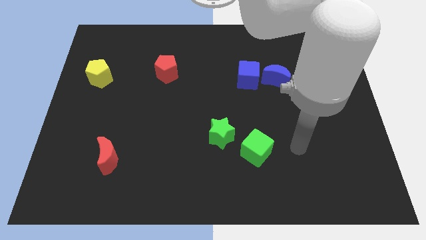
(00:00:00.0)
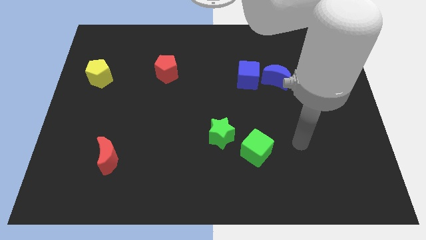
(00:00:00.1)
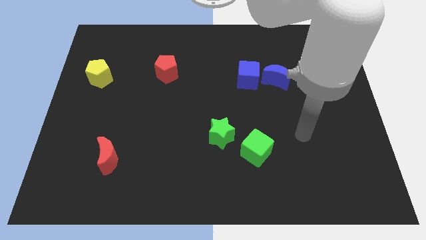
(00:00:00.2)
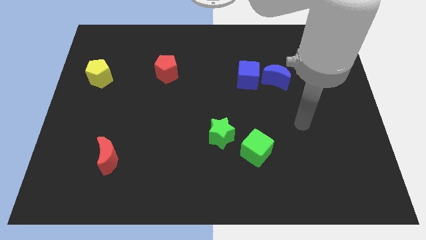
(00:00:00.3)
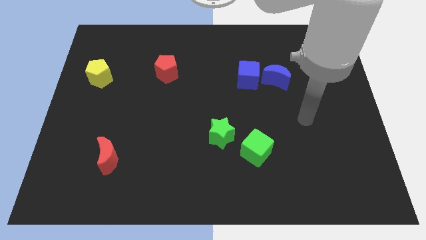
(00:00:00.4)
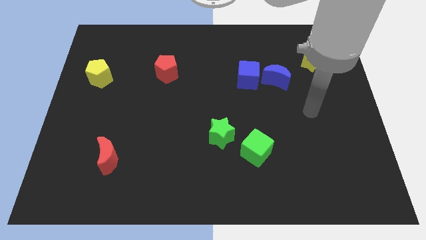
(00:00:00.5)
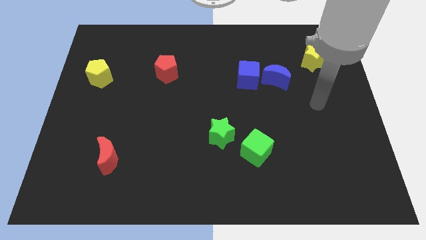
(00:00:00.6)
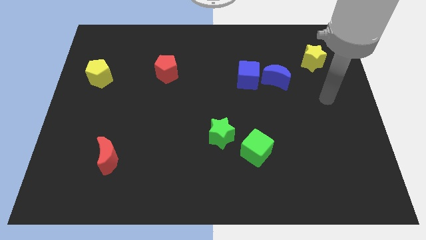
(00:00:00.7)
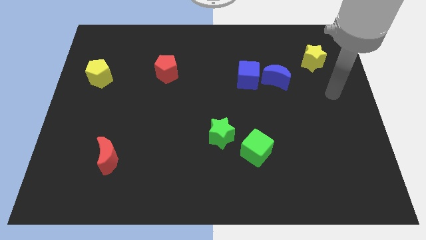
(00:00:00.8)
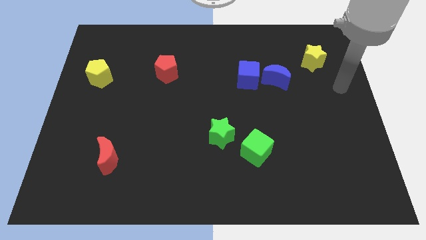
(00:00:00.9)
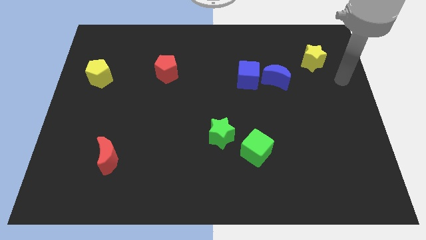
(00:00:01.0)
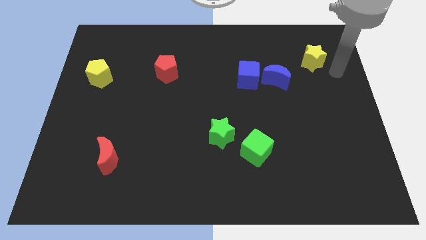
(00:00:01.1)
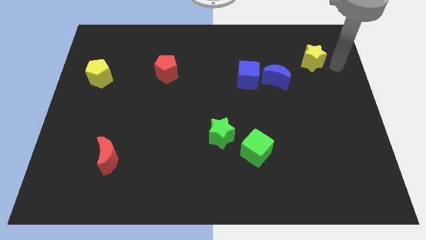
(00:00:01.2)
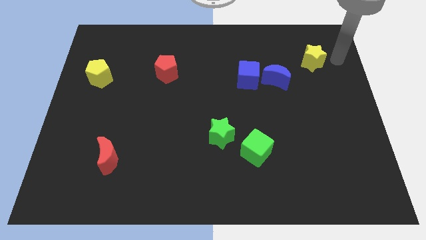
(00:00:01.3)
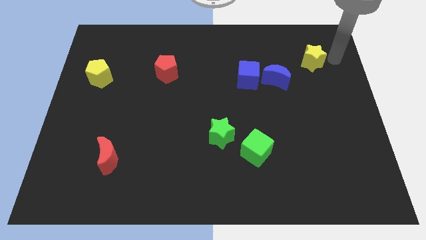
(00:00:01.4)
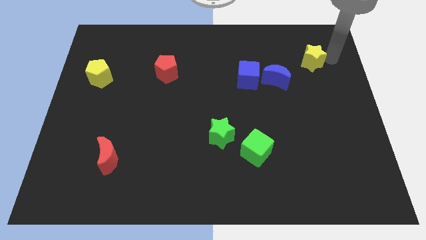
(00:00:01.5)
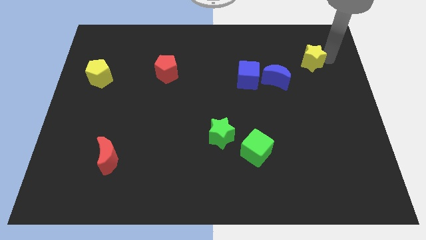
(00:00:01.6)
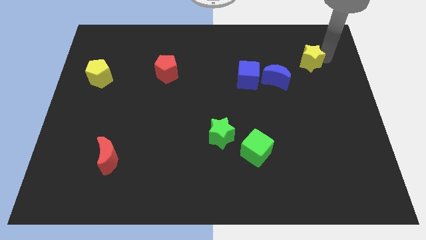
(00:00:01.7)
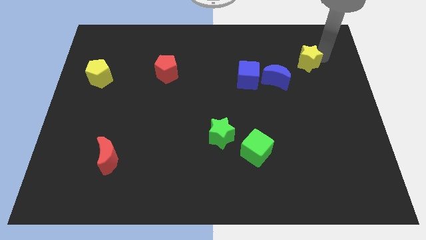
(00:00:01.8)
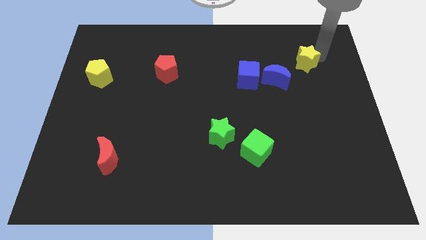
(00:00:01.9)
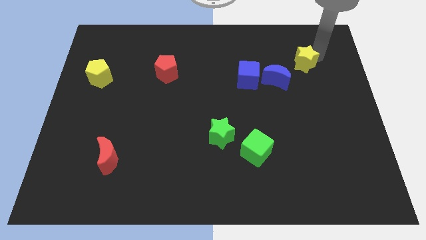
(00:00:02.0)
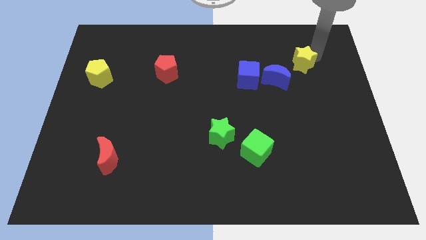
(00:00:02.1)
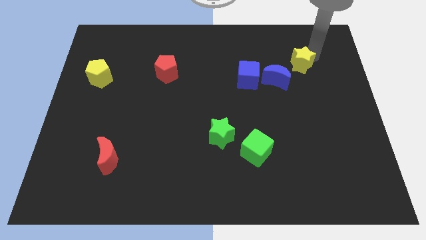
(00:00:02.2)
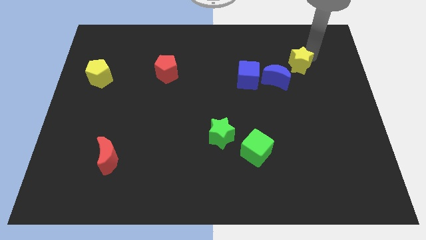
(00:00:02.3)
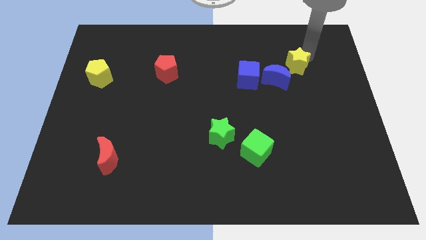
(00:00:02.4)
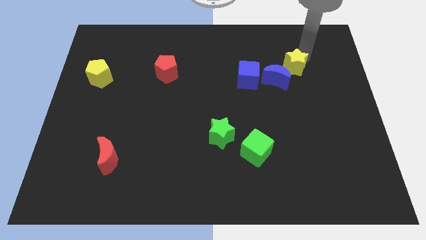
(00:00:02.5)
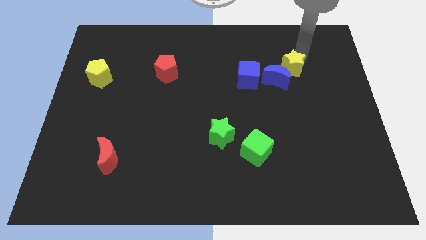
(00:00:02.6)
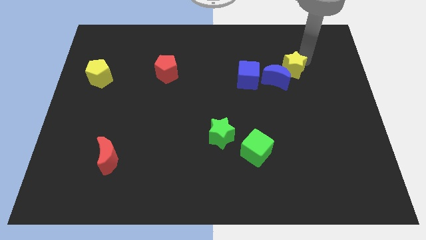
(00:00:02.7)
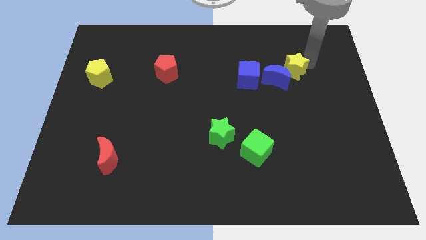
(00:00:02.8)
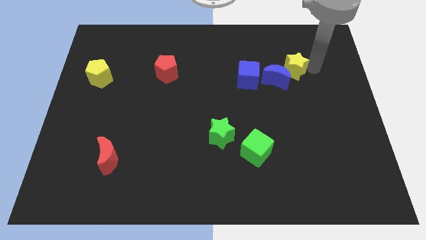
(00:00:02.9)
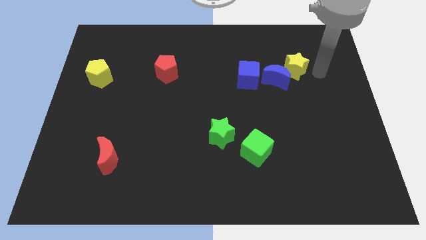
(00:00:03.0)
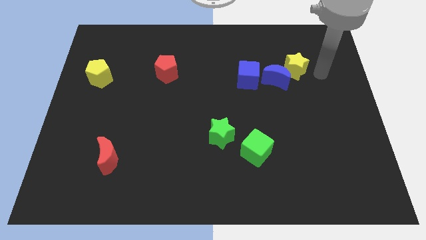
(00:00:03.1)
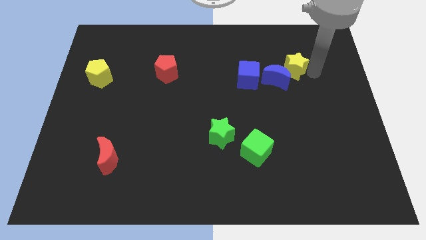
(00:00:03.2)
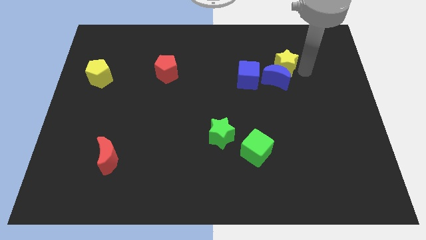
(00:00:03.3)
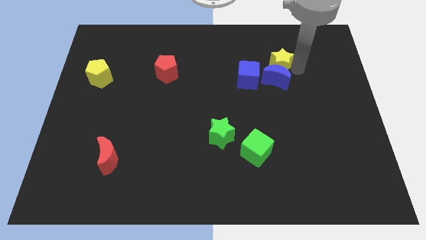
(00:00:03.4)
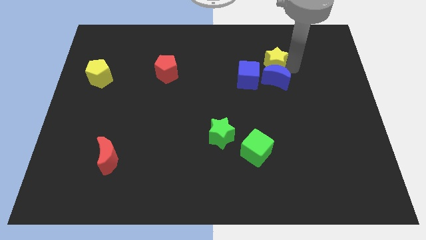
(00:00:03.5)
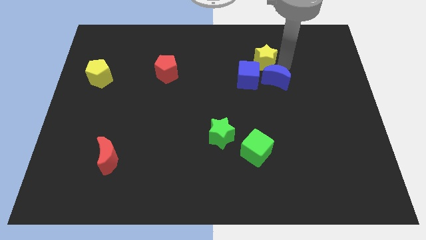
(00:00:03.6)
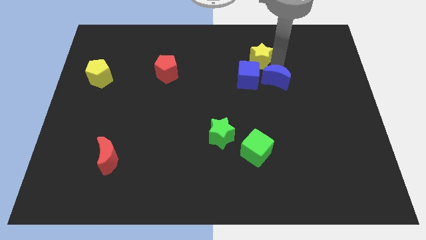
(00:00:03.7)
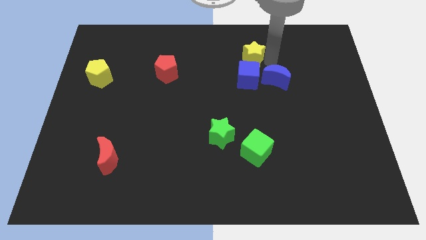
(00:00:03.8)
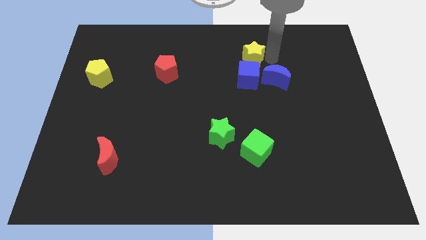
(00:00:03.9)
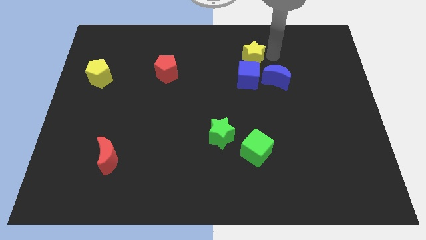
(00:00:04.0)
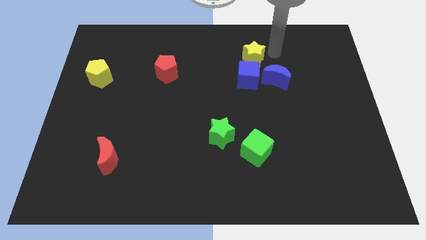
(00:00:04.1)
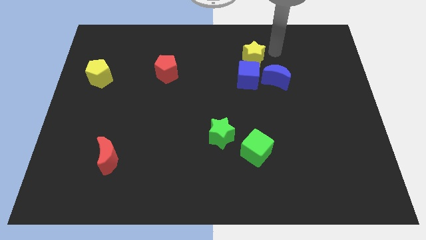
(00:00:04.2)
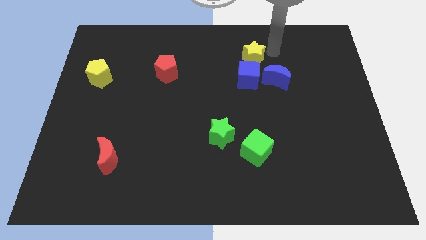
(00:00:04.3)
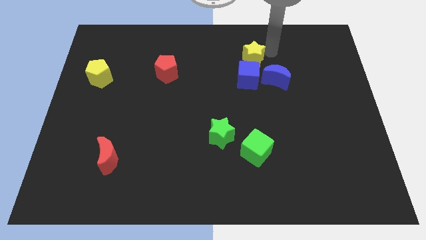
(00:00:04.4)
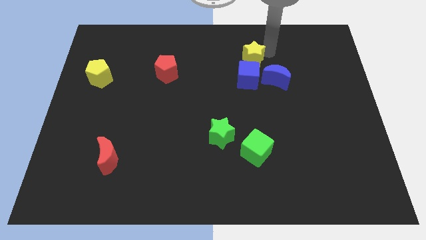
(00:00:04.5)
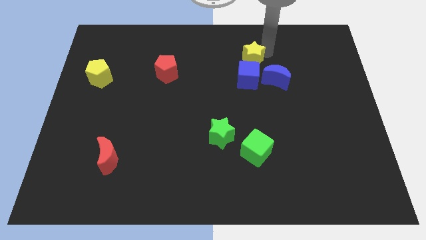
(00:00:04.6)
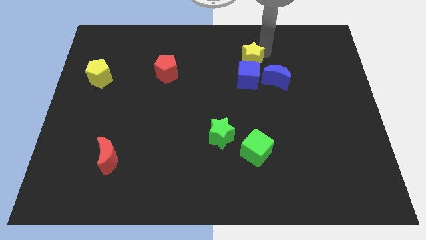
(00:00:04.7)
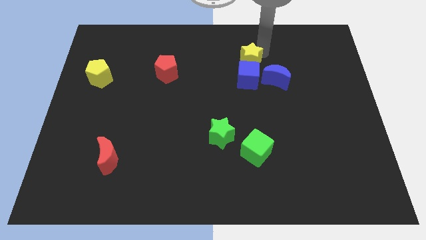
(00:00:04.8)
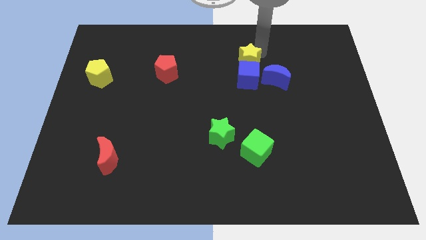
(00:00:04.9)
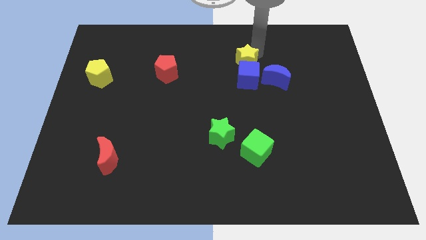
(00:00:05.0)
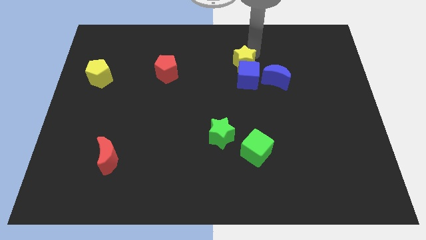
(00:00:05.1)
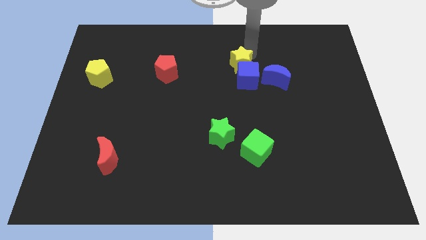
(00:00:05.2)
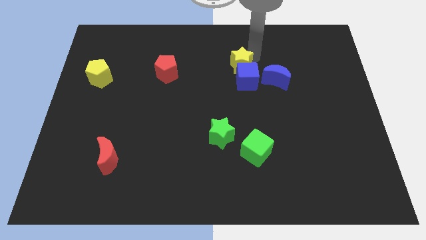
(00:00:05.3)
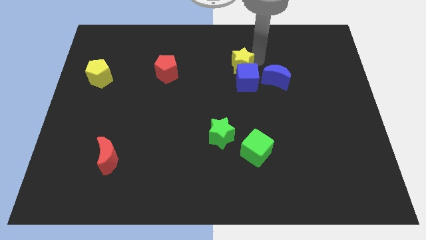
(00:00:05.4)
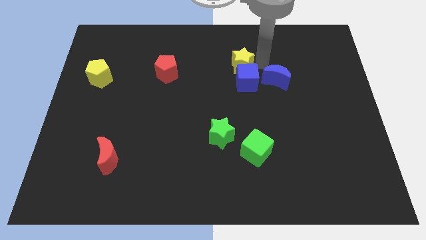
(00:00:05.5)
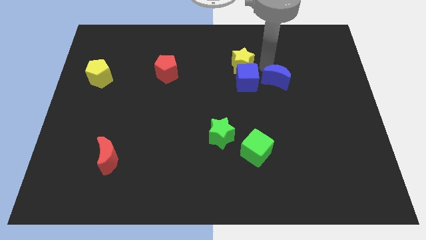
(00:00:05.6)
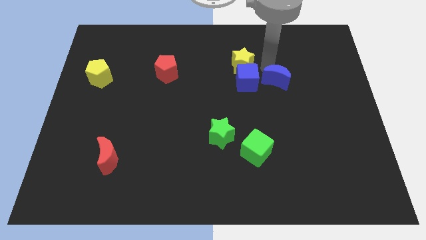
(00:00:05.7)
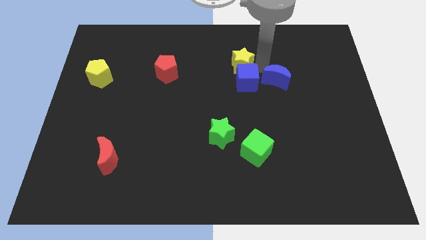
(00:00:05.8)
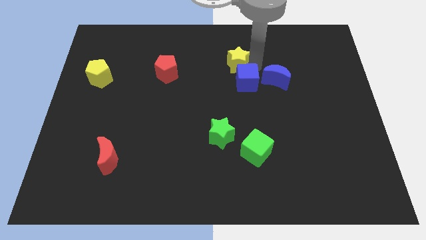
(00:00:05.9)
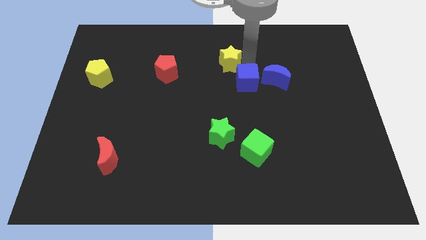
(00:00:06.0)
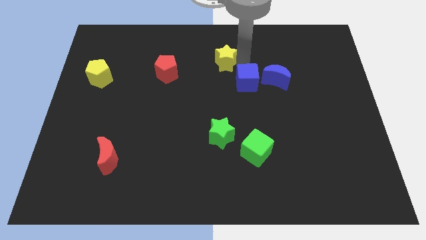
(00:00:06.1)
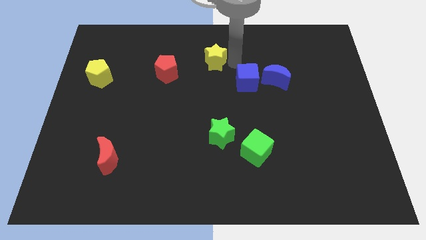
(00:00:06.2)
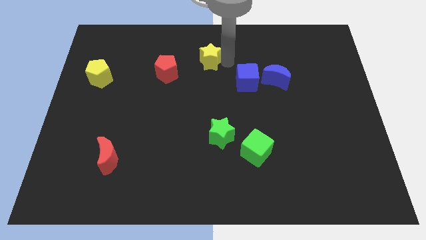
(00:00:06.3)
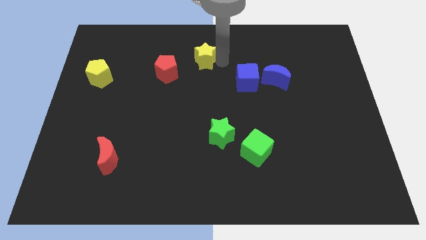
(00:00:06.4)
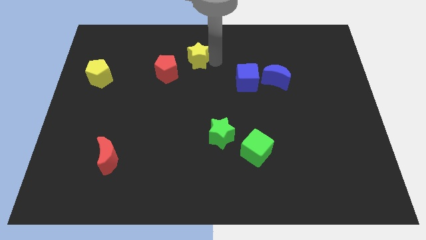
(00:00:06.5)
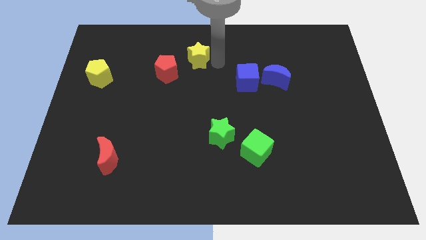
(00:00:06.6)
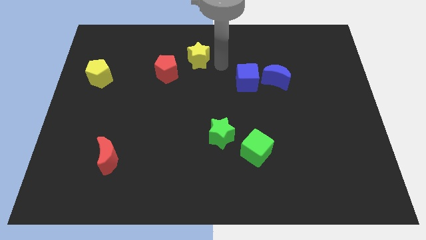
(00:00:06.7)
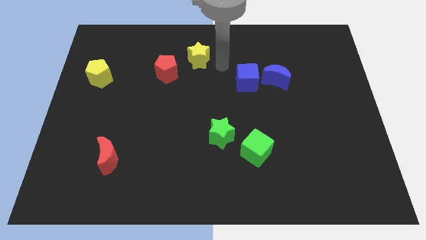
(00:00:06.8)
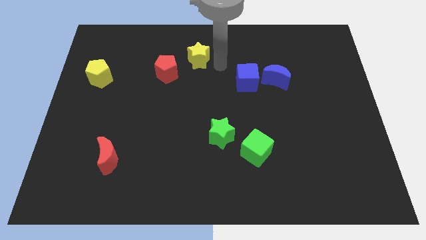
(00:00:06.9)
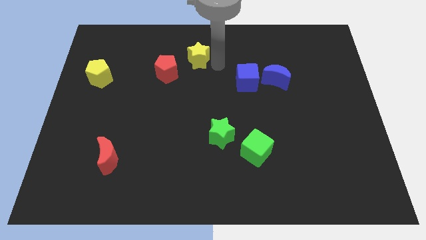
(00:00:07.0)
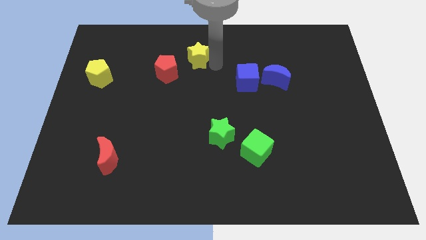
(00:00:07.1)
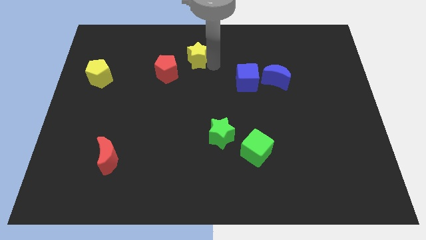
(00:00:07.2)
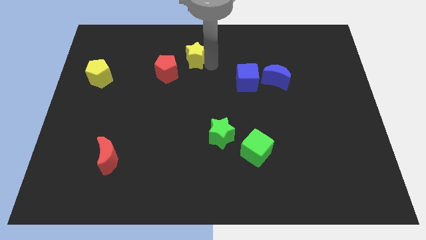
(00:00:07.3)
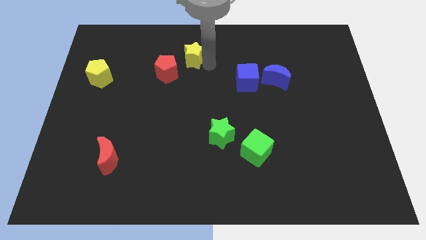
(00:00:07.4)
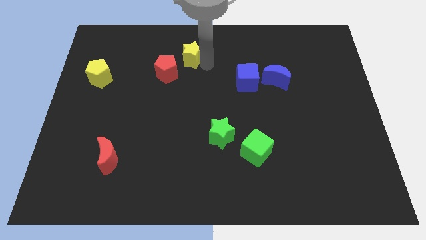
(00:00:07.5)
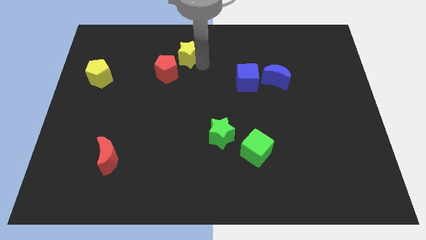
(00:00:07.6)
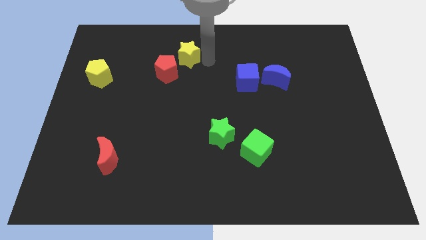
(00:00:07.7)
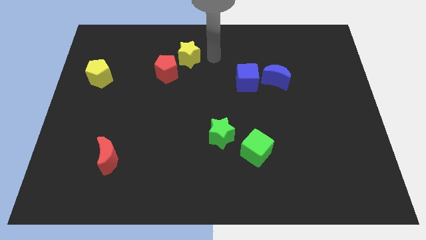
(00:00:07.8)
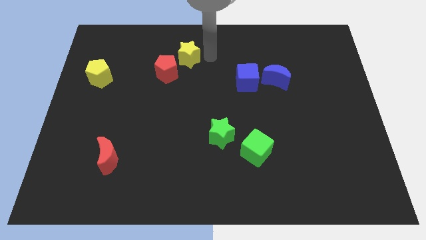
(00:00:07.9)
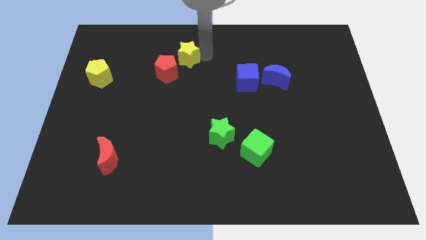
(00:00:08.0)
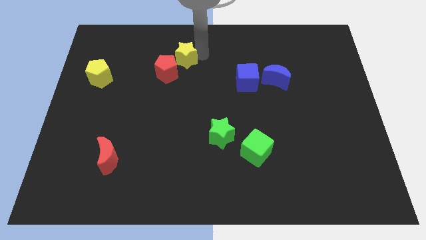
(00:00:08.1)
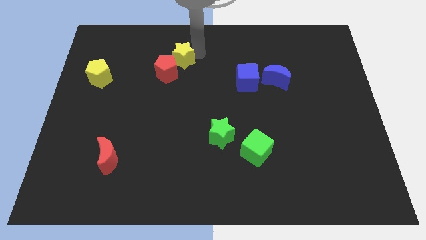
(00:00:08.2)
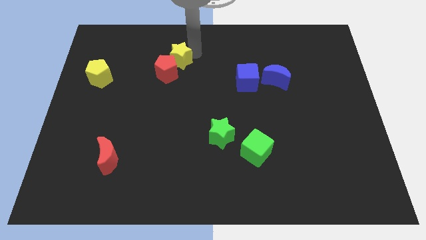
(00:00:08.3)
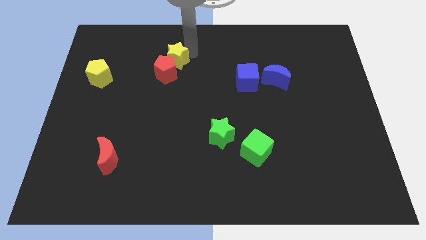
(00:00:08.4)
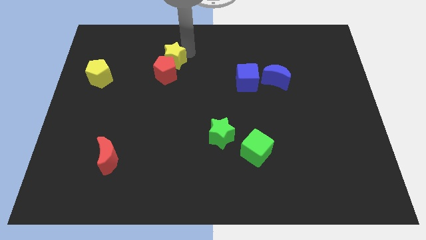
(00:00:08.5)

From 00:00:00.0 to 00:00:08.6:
slide the yellow star diagonally up and to the left of the red pentagon
